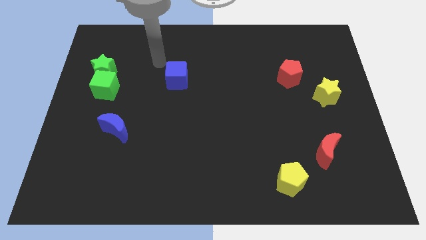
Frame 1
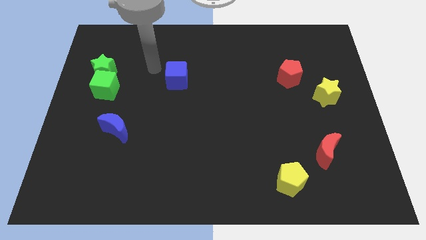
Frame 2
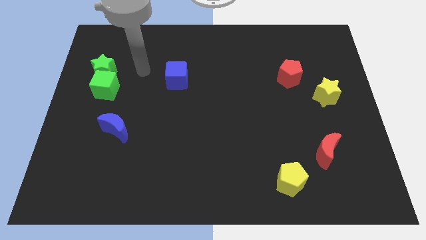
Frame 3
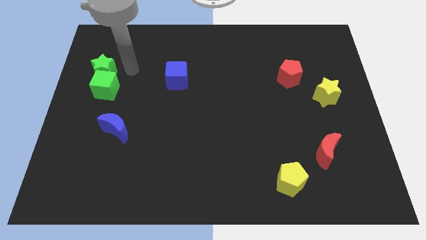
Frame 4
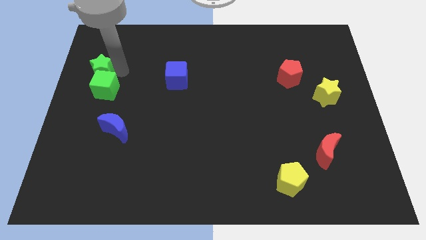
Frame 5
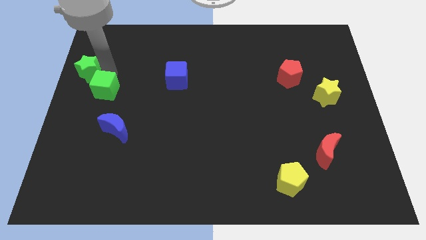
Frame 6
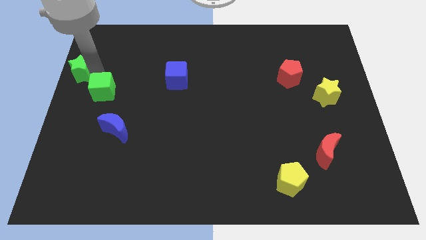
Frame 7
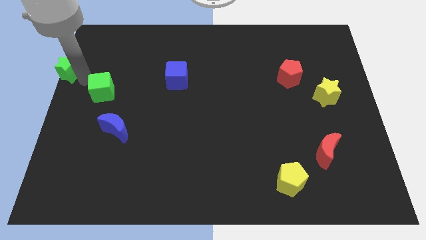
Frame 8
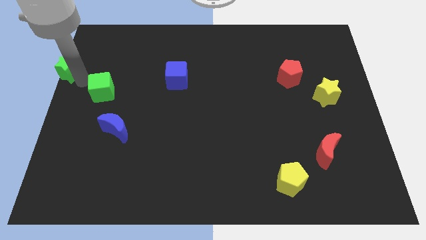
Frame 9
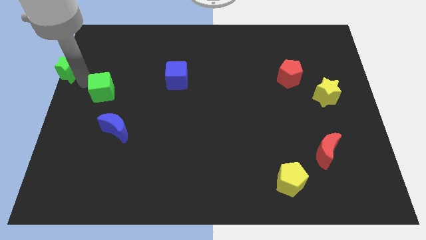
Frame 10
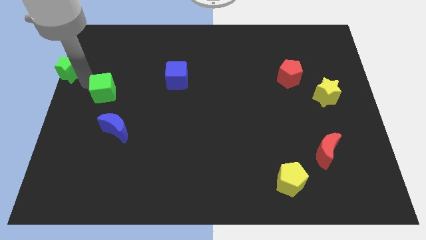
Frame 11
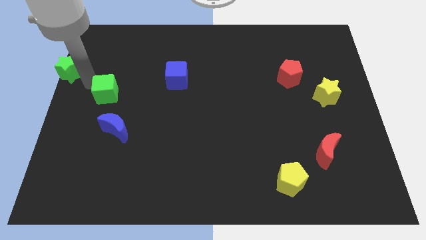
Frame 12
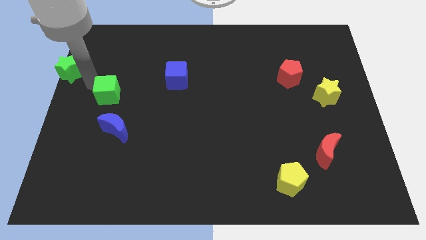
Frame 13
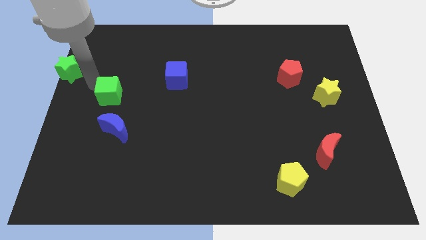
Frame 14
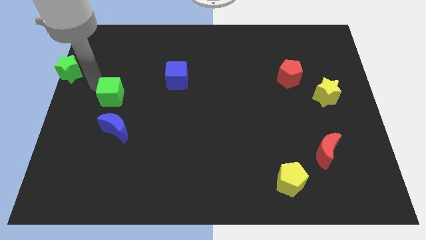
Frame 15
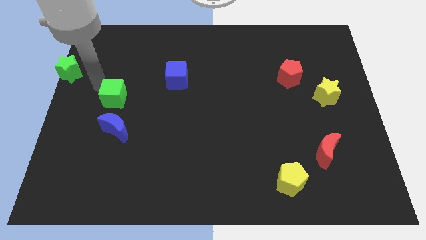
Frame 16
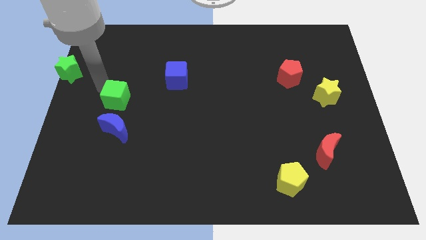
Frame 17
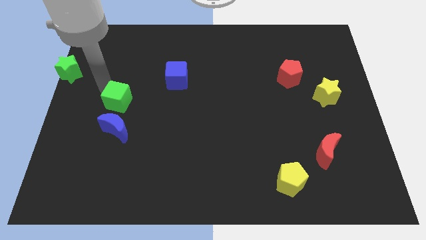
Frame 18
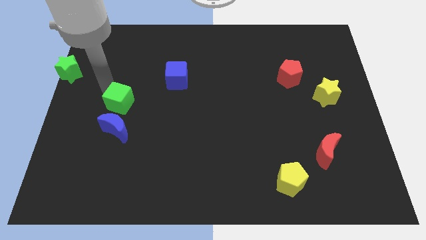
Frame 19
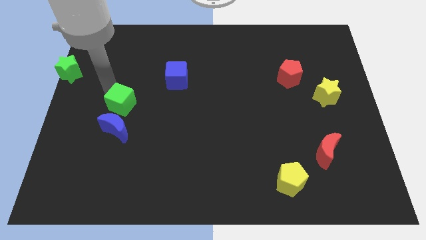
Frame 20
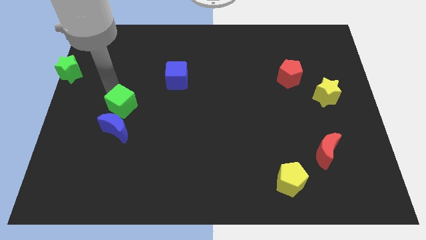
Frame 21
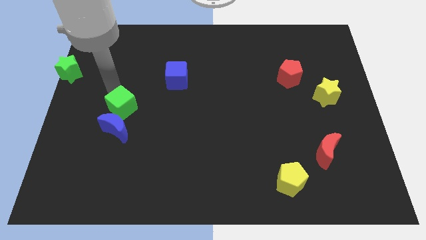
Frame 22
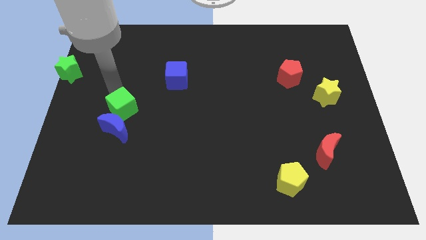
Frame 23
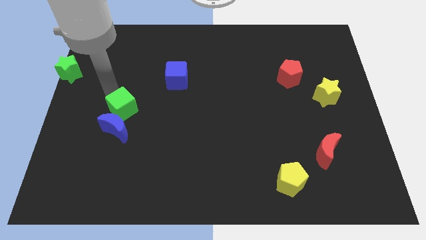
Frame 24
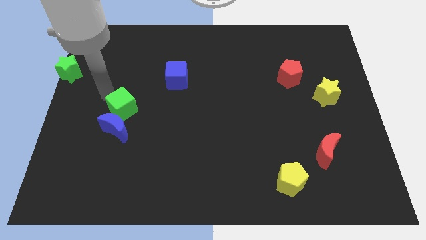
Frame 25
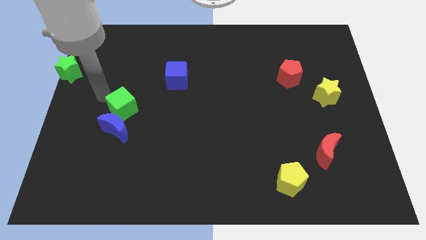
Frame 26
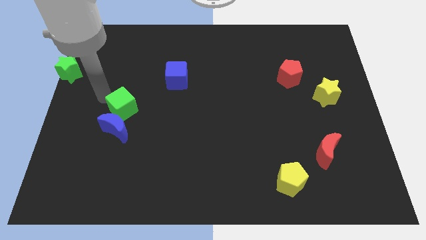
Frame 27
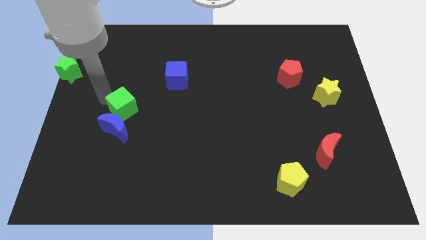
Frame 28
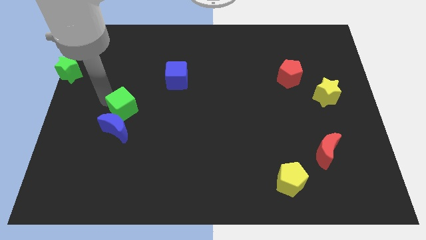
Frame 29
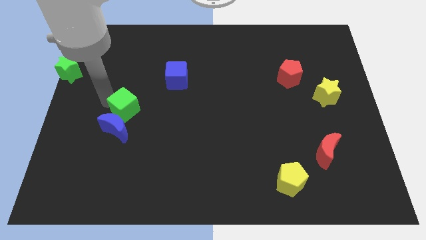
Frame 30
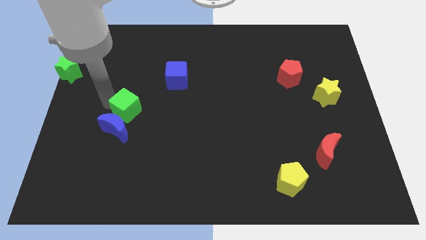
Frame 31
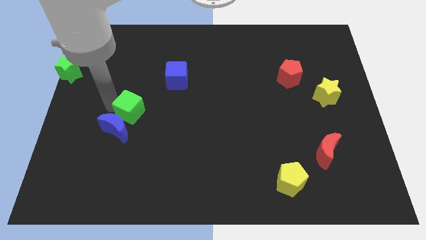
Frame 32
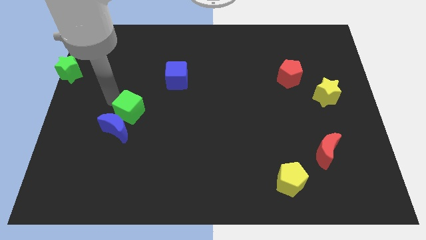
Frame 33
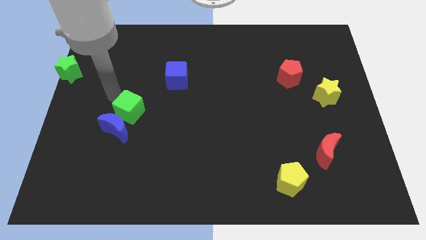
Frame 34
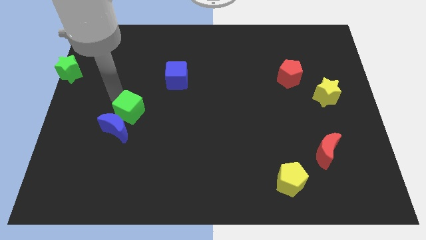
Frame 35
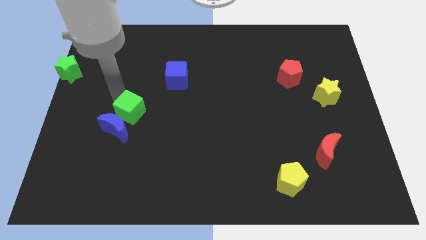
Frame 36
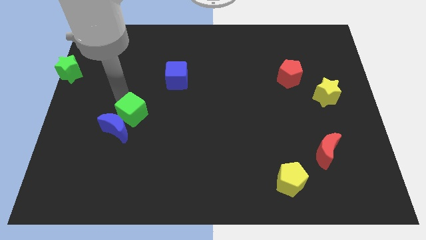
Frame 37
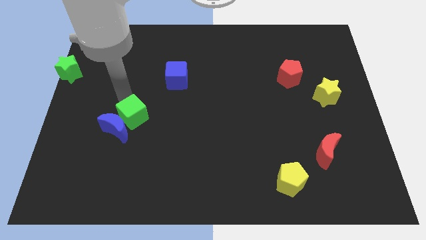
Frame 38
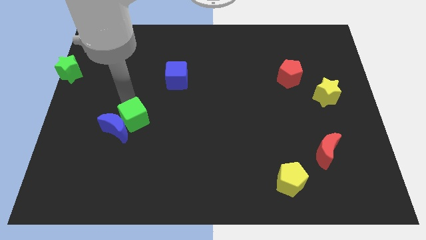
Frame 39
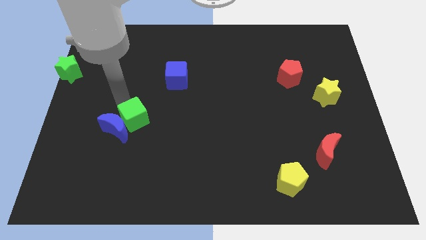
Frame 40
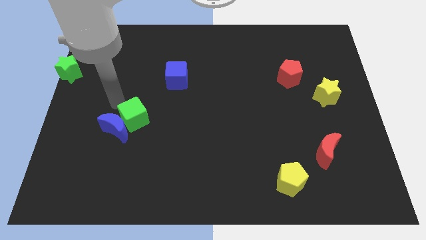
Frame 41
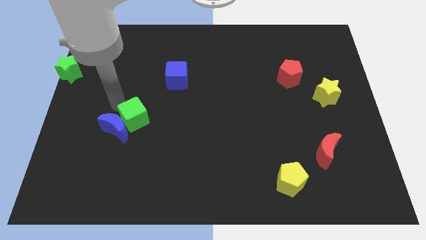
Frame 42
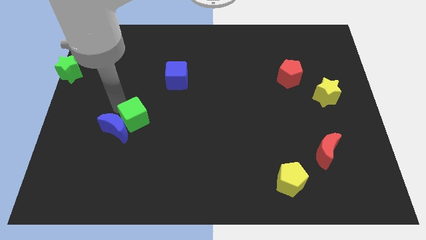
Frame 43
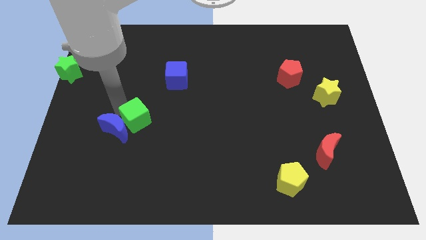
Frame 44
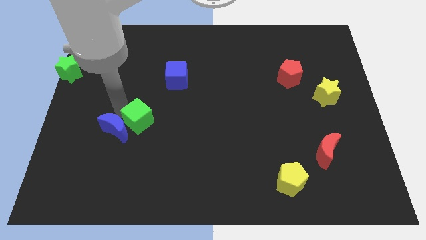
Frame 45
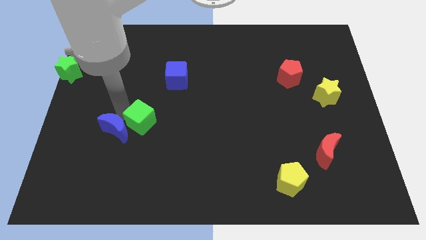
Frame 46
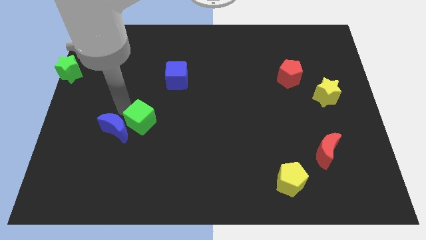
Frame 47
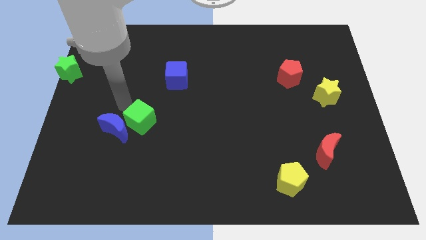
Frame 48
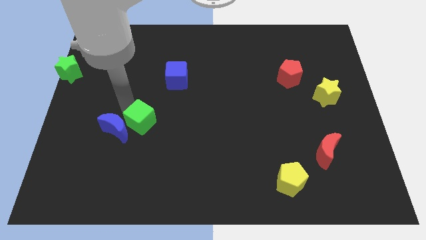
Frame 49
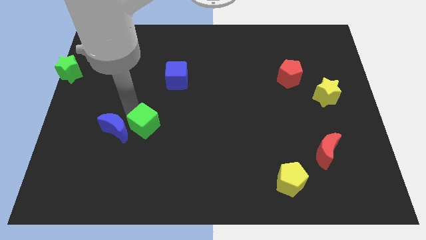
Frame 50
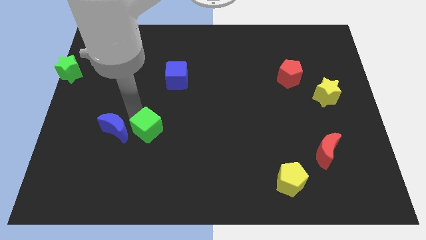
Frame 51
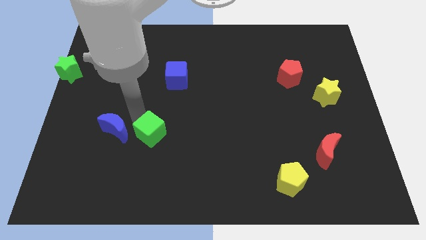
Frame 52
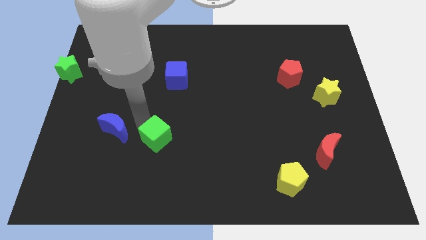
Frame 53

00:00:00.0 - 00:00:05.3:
slide the green cube down and then to the right

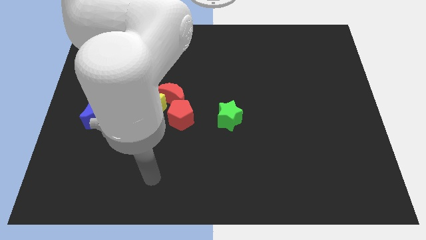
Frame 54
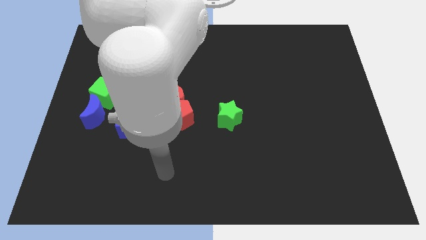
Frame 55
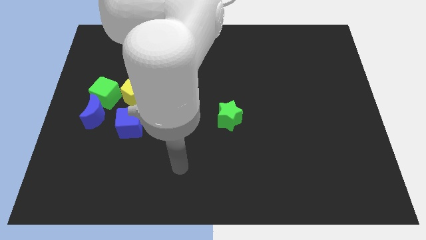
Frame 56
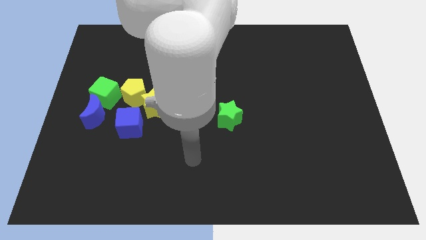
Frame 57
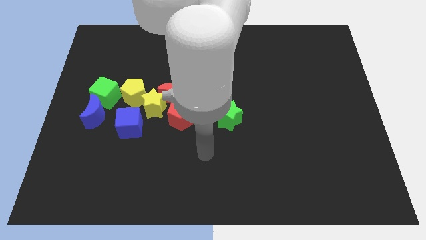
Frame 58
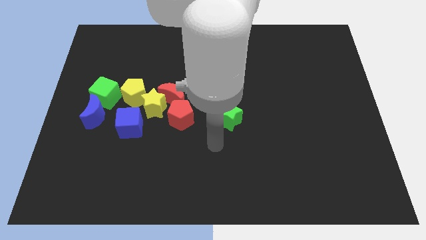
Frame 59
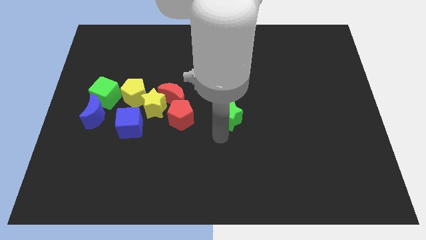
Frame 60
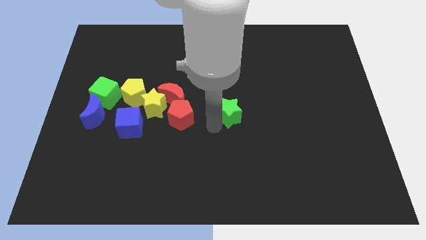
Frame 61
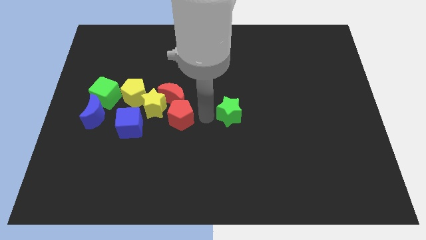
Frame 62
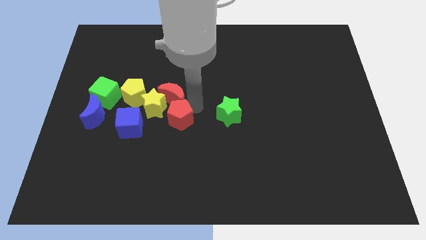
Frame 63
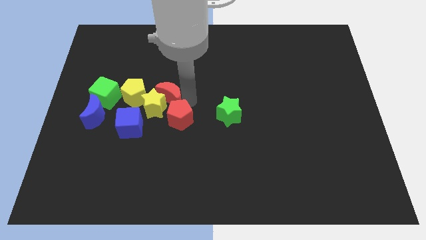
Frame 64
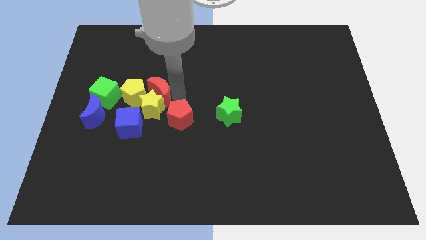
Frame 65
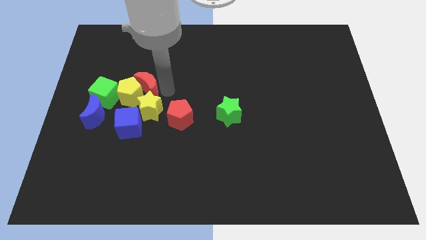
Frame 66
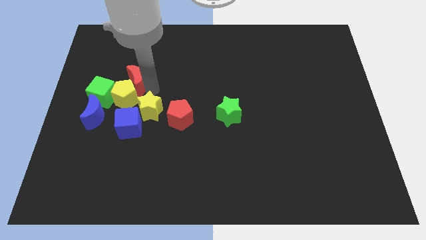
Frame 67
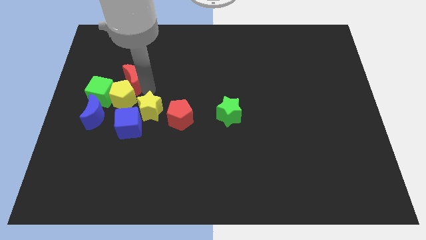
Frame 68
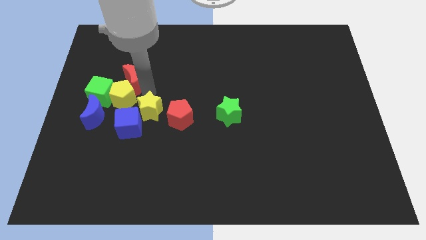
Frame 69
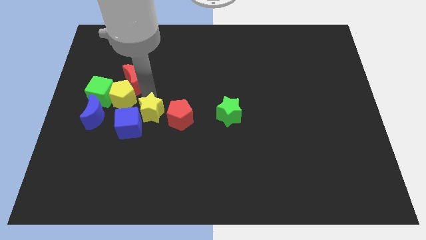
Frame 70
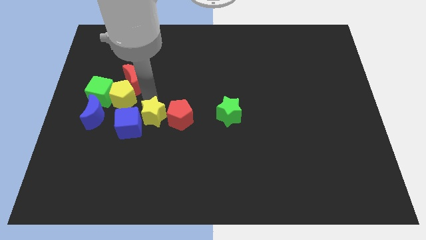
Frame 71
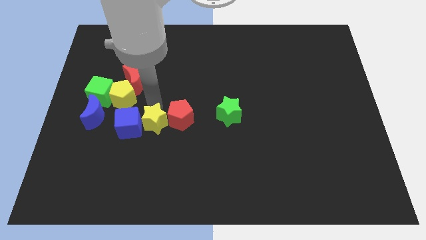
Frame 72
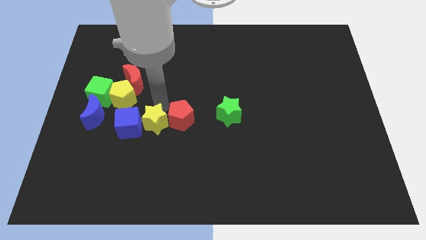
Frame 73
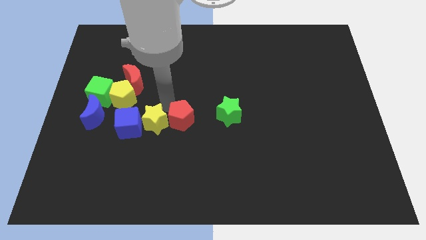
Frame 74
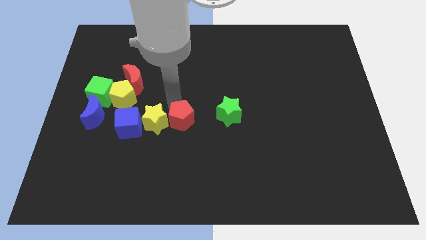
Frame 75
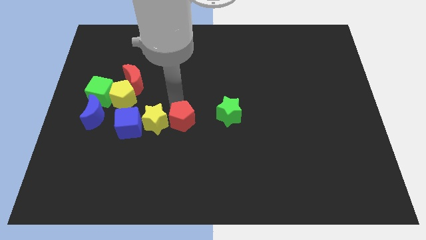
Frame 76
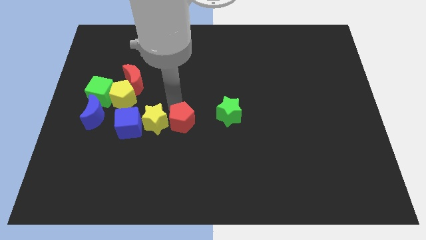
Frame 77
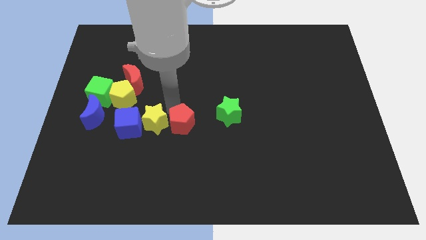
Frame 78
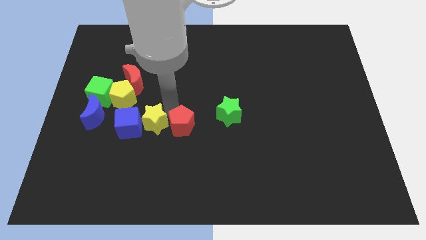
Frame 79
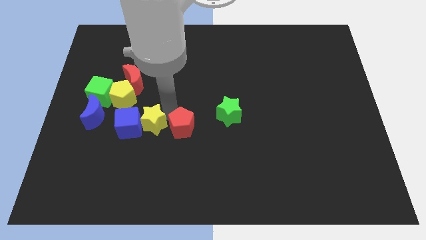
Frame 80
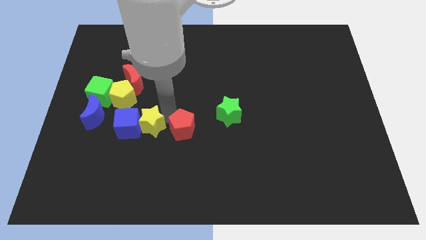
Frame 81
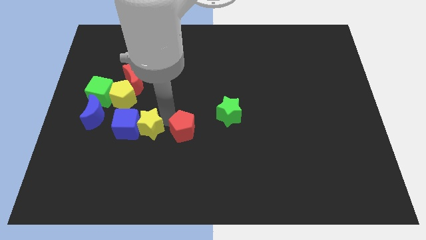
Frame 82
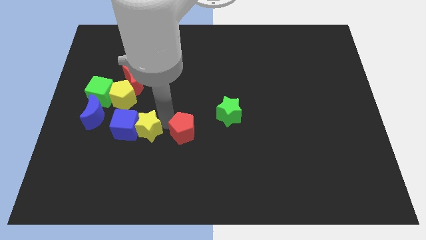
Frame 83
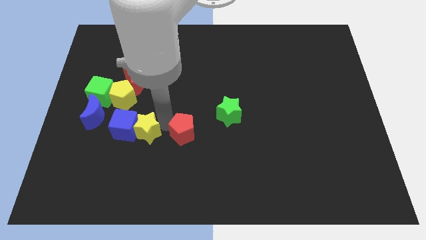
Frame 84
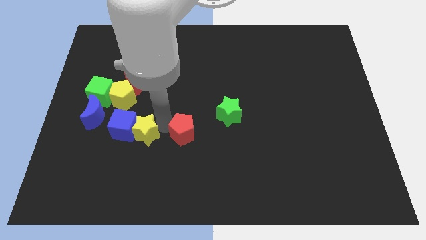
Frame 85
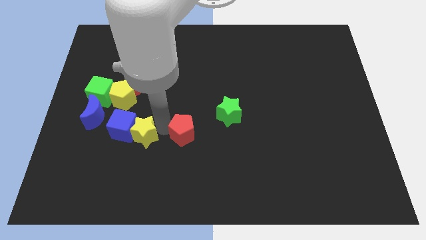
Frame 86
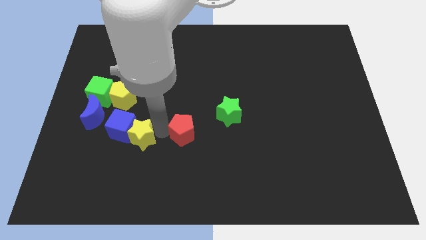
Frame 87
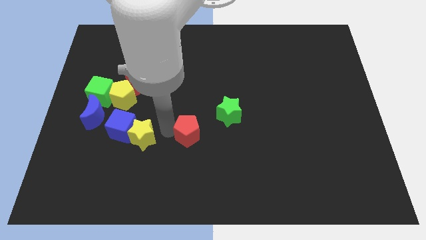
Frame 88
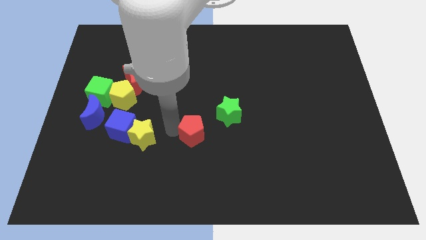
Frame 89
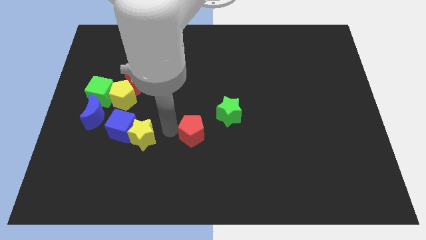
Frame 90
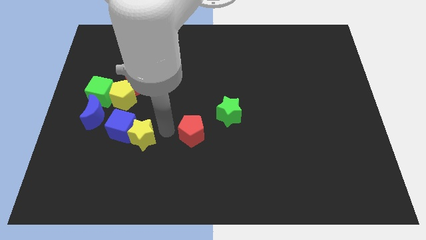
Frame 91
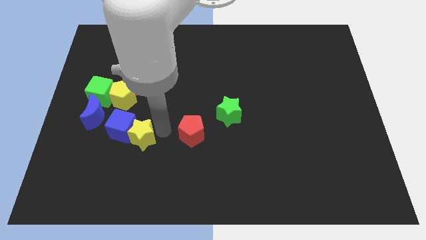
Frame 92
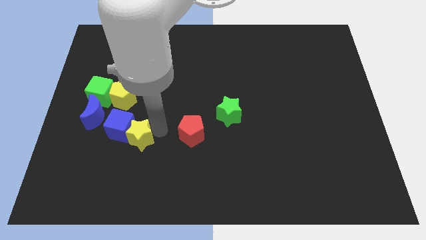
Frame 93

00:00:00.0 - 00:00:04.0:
slide the yellow star downwards and to the left a little
